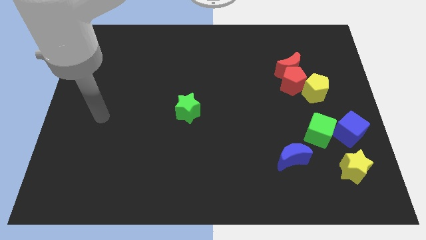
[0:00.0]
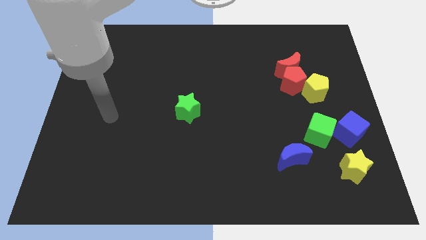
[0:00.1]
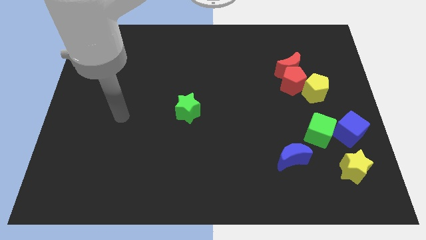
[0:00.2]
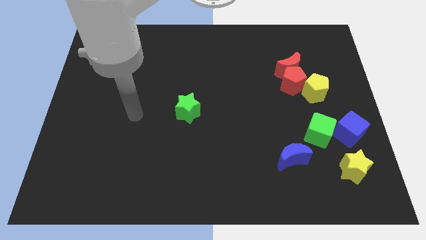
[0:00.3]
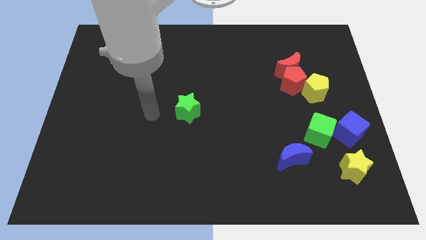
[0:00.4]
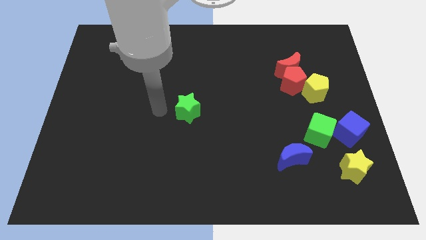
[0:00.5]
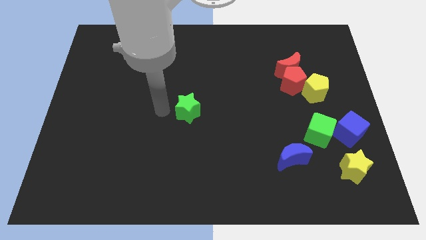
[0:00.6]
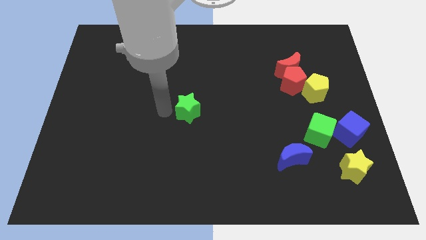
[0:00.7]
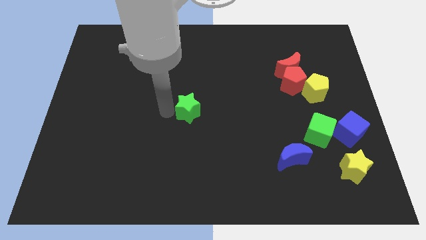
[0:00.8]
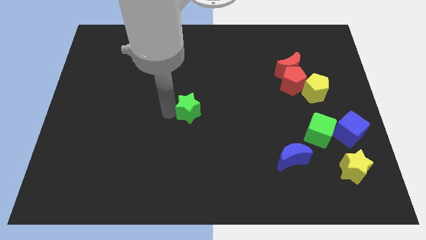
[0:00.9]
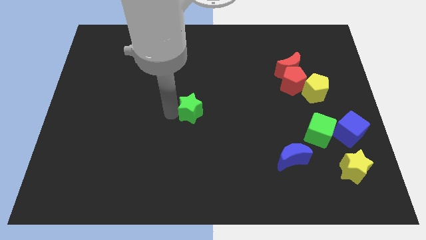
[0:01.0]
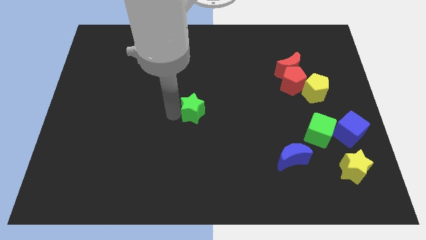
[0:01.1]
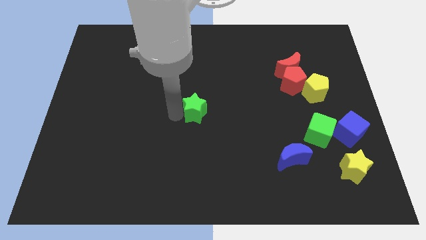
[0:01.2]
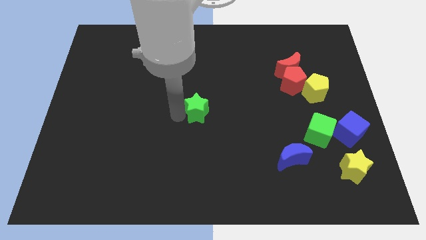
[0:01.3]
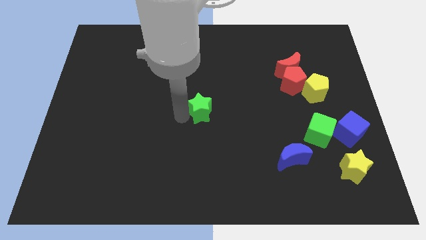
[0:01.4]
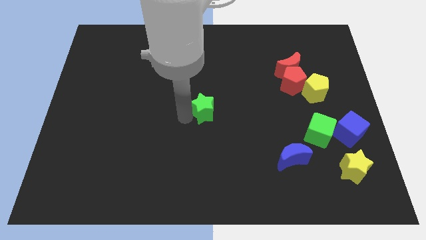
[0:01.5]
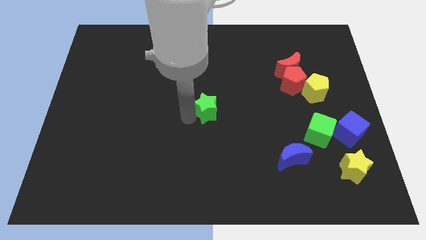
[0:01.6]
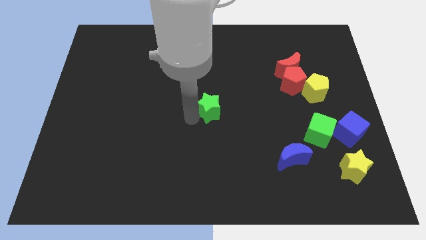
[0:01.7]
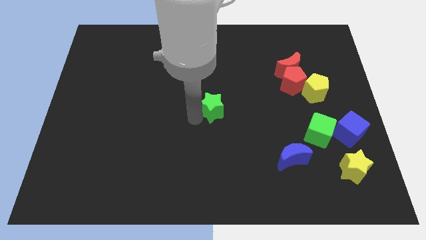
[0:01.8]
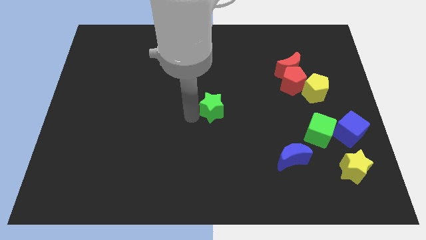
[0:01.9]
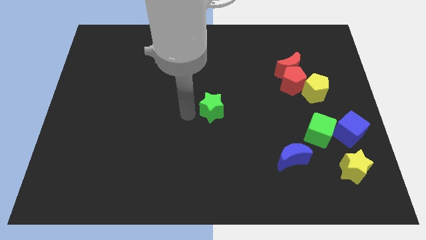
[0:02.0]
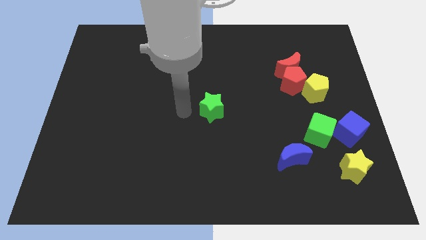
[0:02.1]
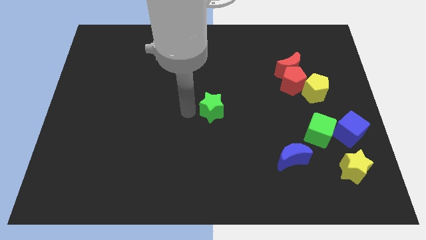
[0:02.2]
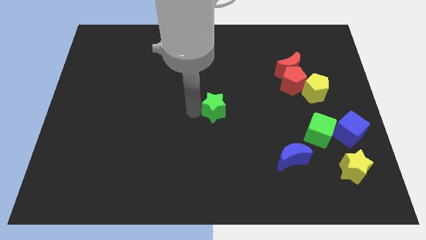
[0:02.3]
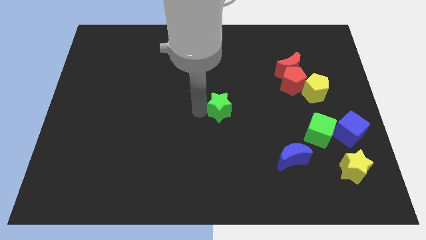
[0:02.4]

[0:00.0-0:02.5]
push the green star somewhat to the right

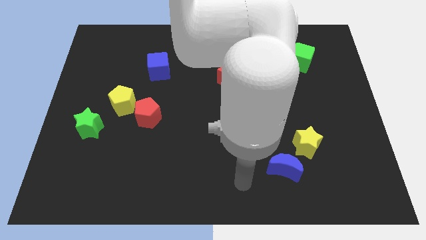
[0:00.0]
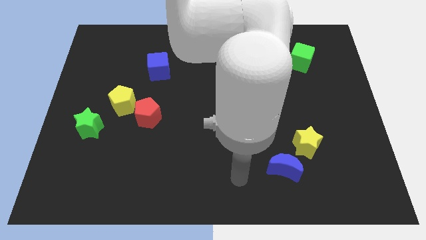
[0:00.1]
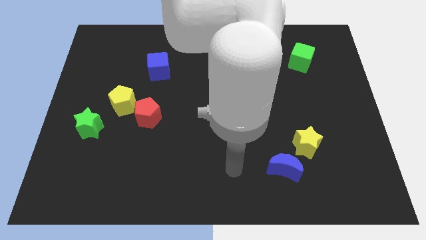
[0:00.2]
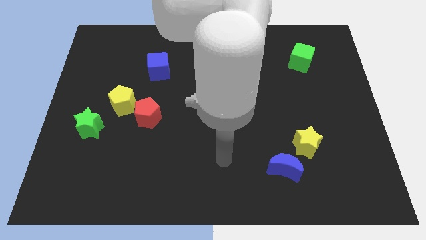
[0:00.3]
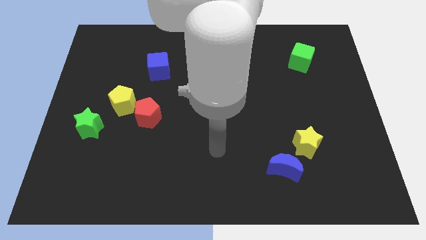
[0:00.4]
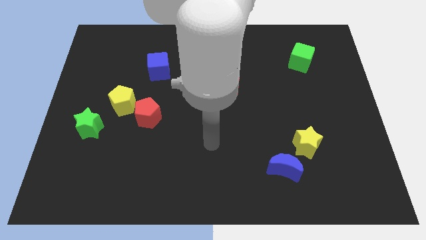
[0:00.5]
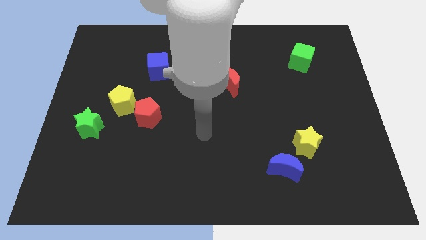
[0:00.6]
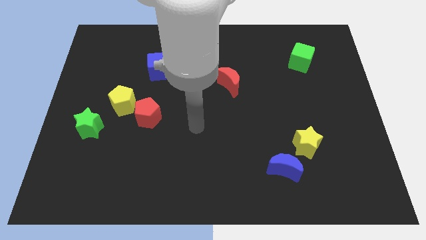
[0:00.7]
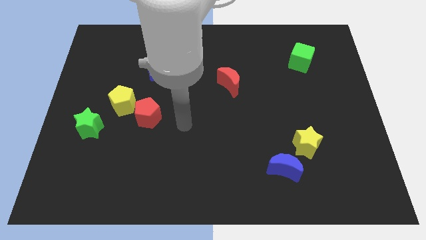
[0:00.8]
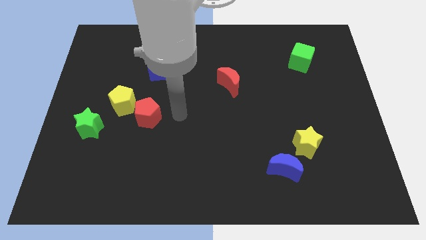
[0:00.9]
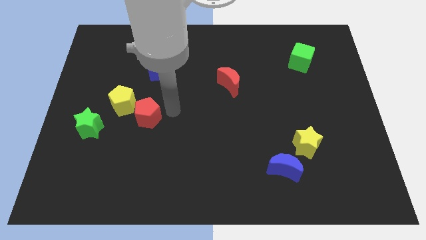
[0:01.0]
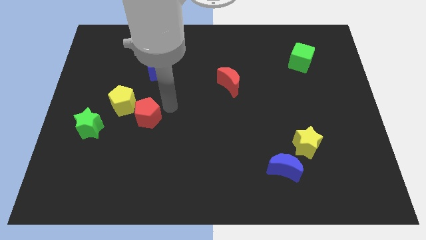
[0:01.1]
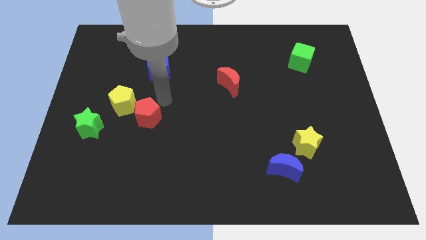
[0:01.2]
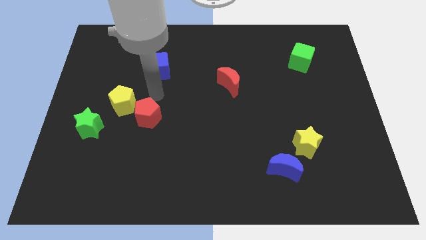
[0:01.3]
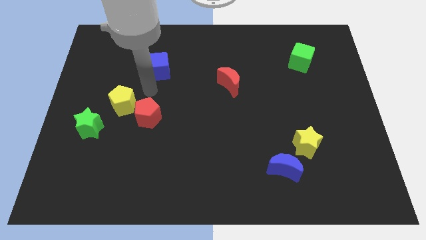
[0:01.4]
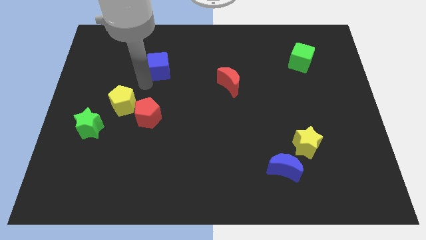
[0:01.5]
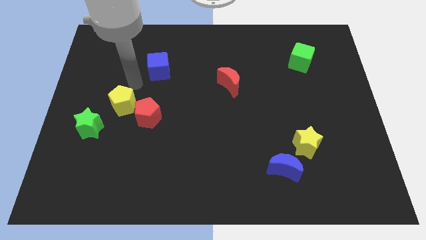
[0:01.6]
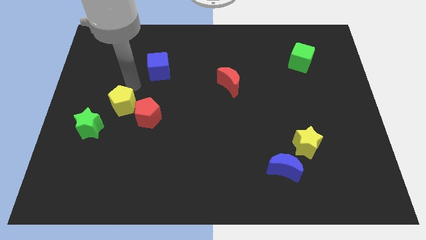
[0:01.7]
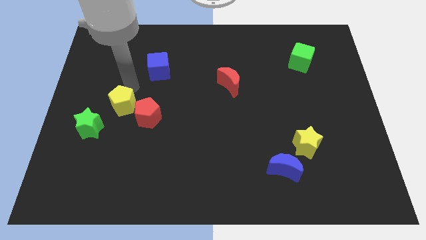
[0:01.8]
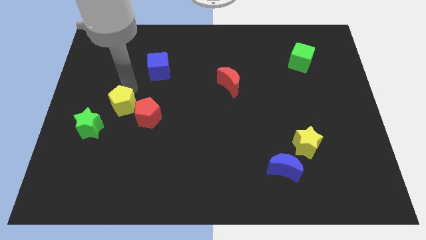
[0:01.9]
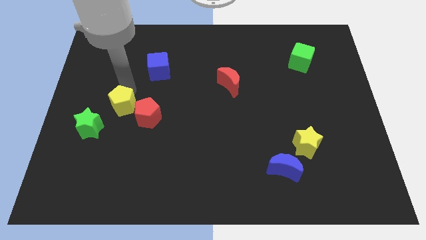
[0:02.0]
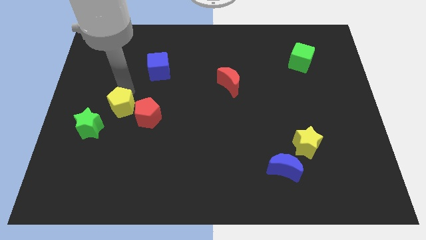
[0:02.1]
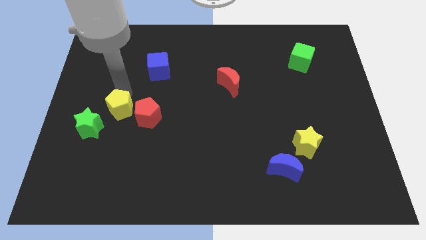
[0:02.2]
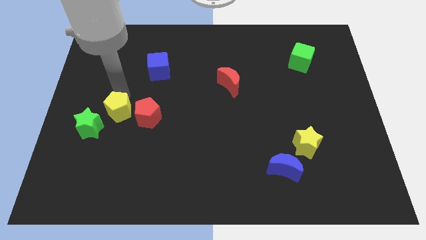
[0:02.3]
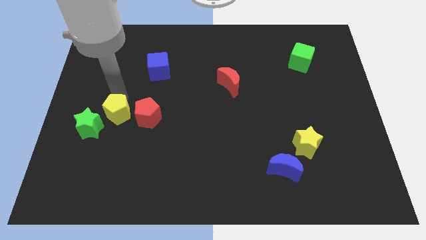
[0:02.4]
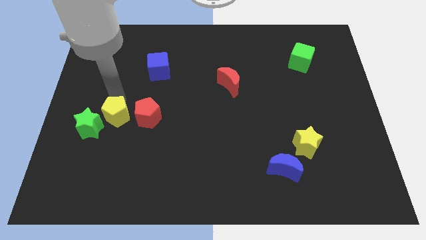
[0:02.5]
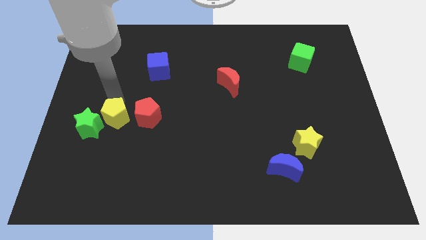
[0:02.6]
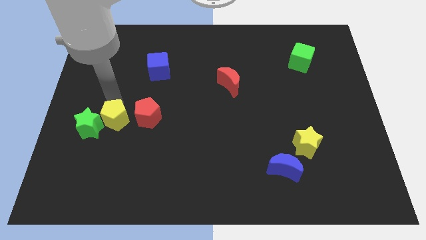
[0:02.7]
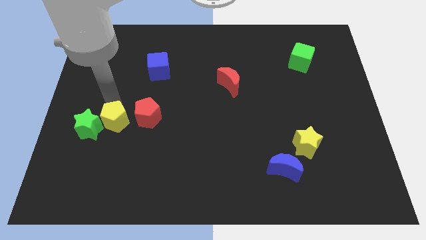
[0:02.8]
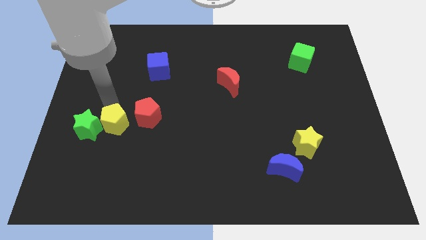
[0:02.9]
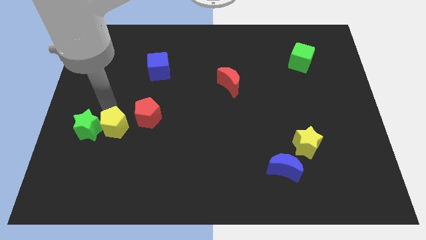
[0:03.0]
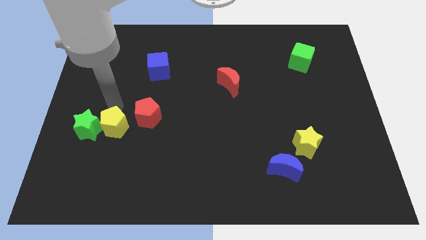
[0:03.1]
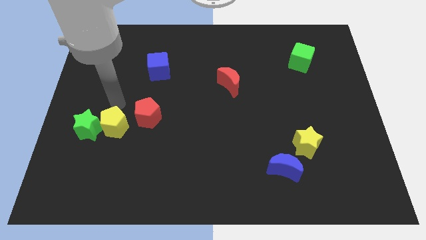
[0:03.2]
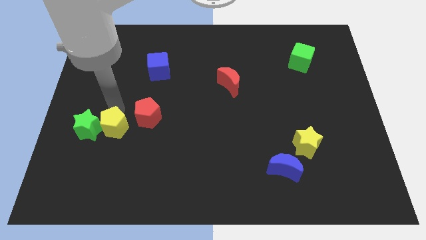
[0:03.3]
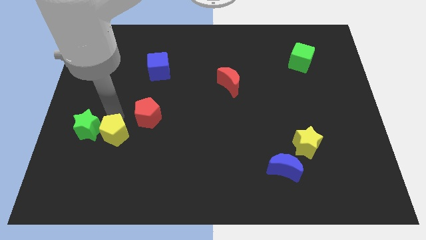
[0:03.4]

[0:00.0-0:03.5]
push the yellow pentagon down a bit

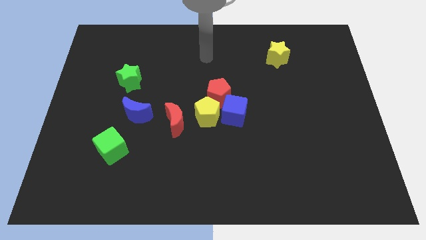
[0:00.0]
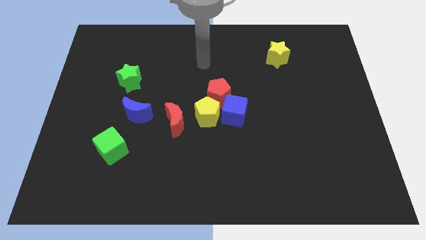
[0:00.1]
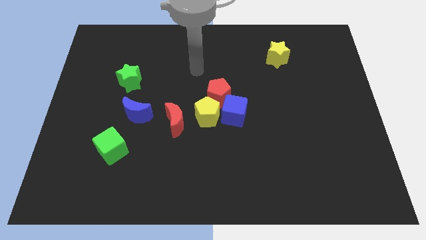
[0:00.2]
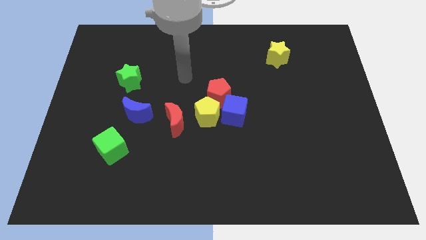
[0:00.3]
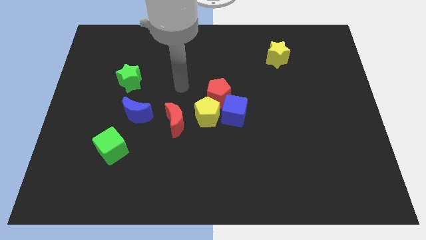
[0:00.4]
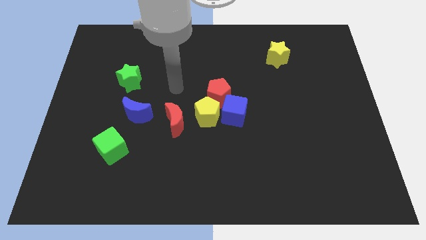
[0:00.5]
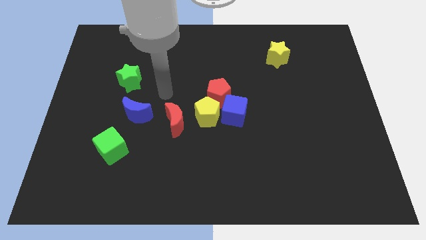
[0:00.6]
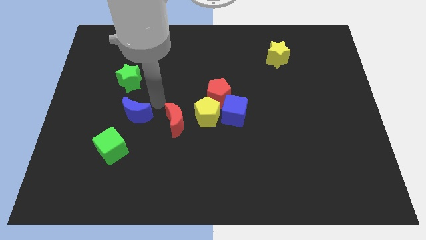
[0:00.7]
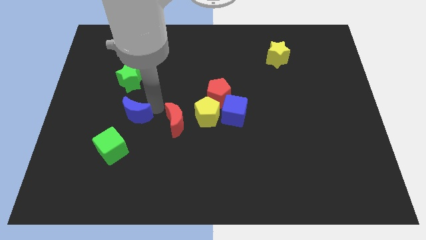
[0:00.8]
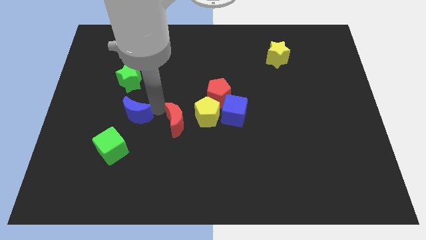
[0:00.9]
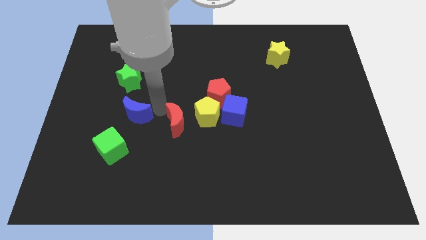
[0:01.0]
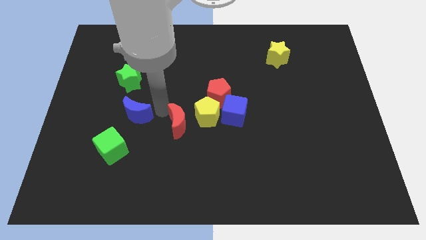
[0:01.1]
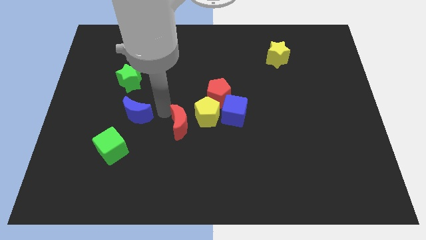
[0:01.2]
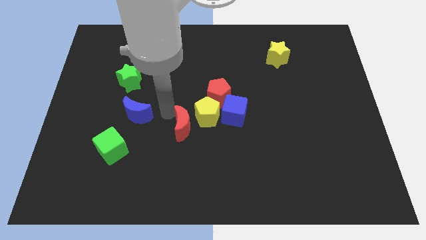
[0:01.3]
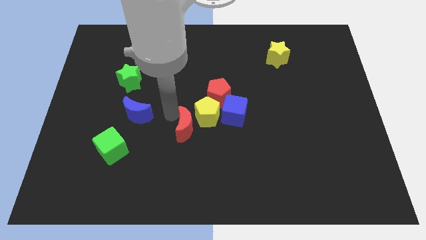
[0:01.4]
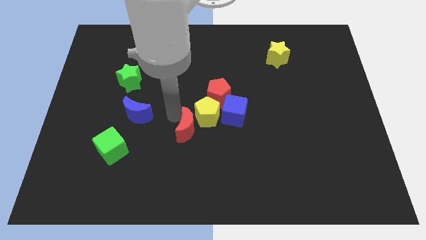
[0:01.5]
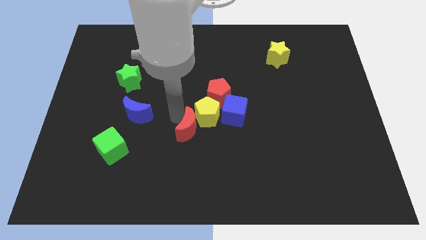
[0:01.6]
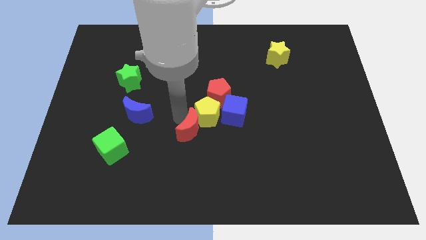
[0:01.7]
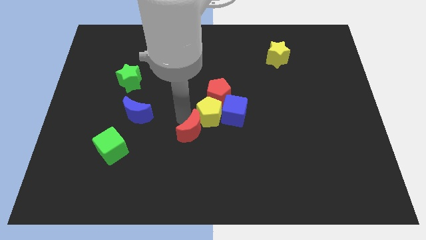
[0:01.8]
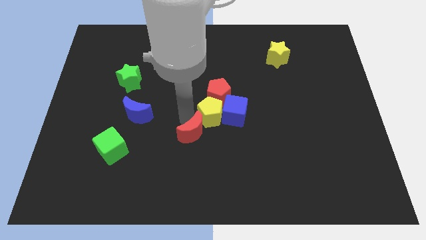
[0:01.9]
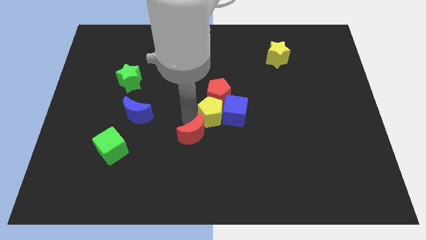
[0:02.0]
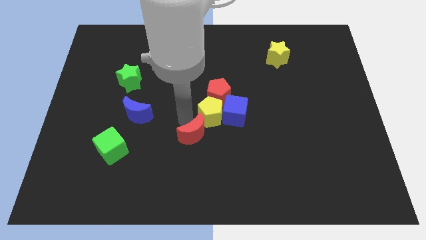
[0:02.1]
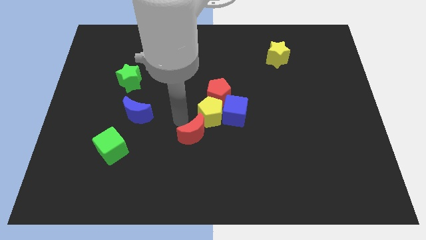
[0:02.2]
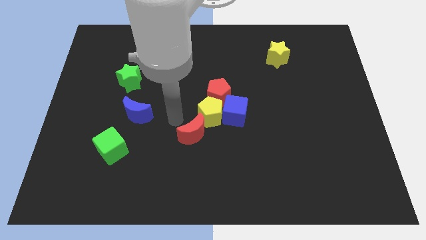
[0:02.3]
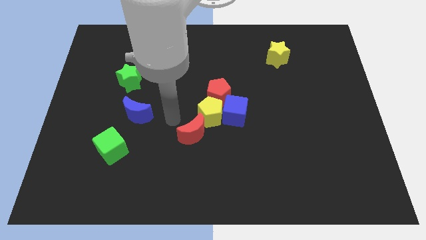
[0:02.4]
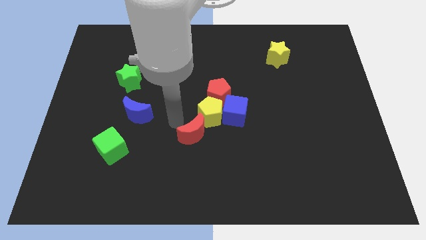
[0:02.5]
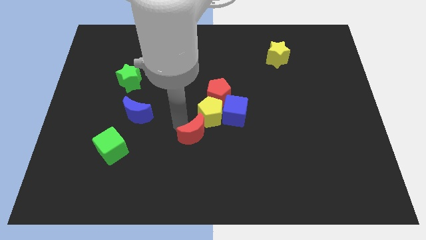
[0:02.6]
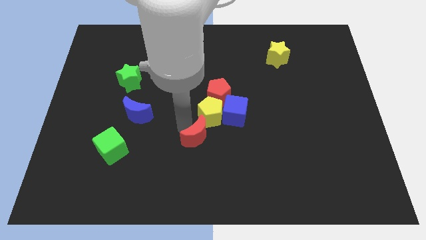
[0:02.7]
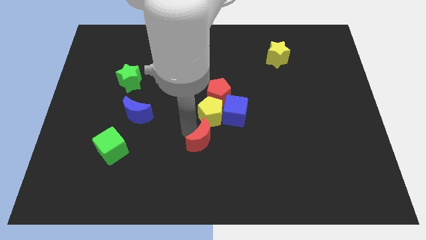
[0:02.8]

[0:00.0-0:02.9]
move the red moon down and then right somewhat
